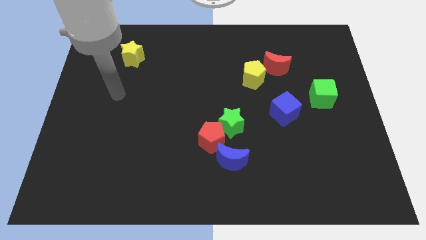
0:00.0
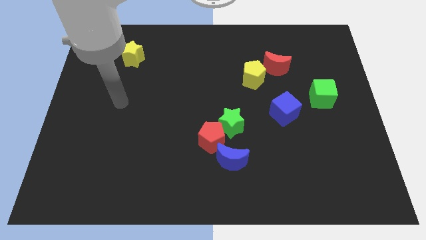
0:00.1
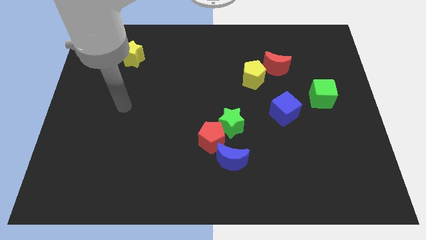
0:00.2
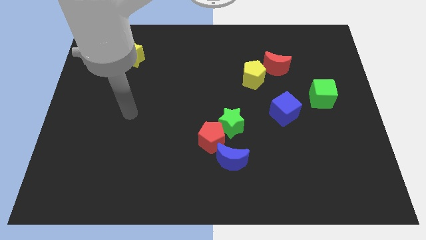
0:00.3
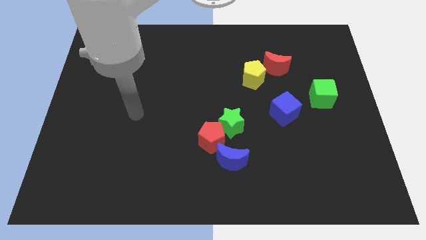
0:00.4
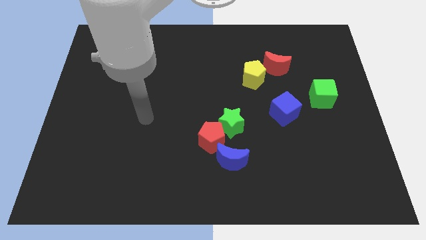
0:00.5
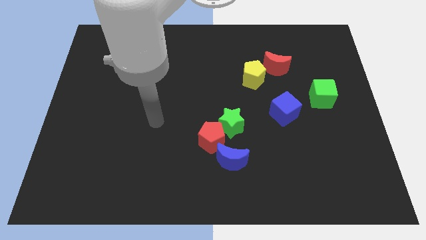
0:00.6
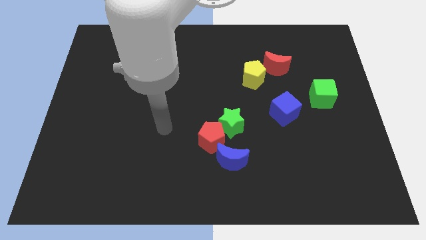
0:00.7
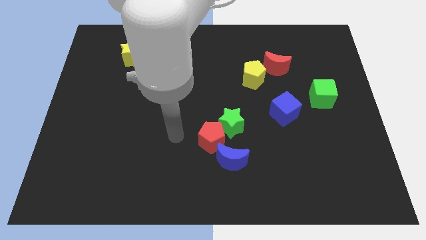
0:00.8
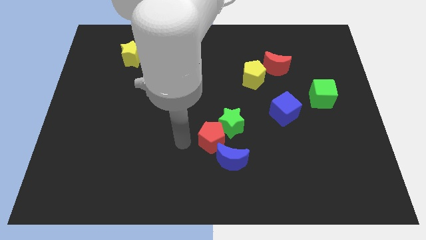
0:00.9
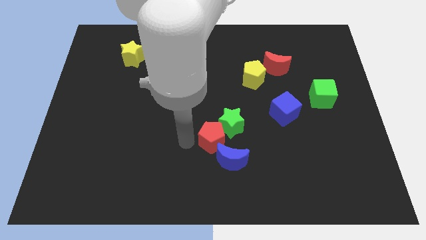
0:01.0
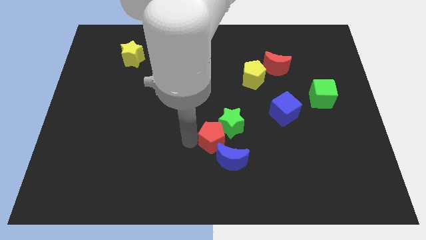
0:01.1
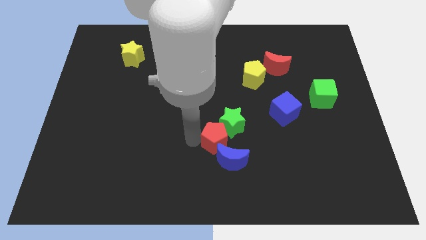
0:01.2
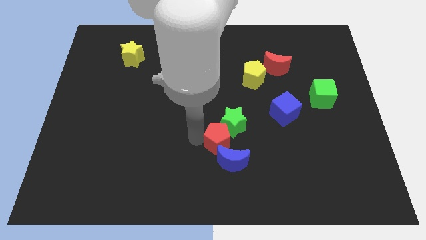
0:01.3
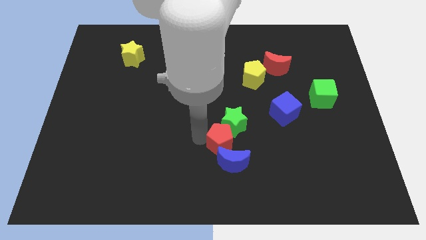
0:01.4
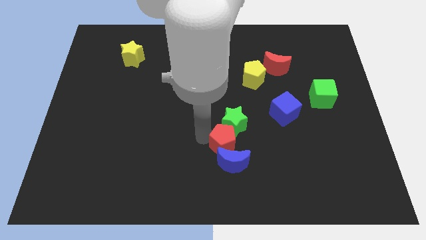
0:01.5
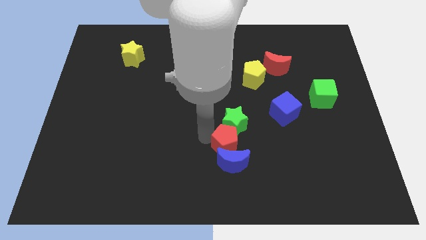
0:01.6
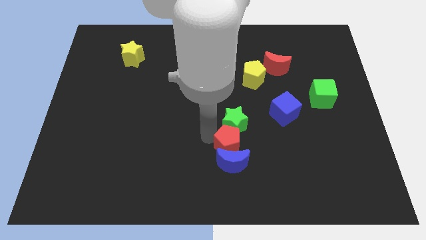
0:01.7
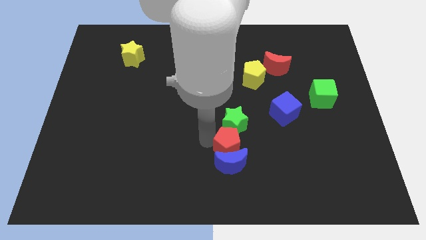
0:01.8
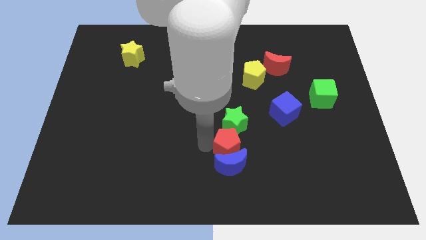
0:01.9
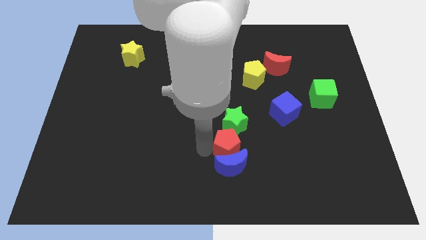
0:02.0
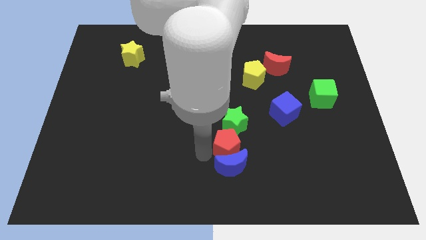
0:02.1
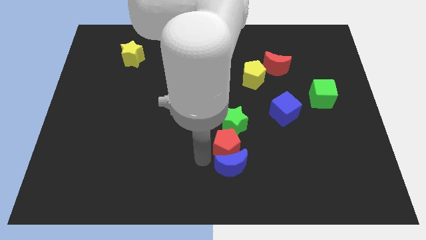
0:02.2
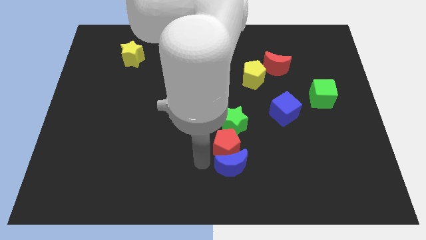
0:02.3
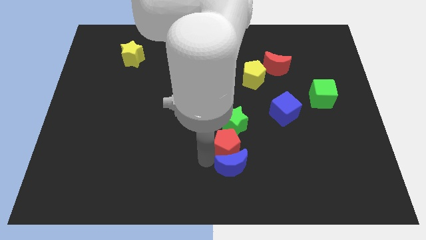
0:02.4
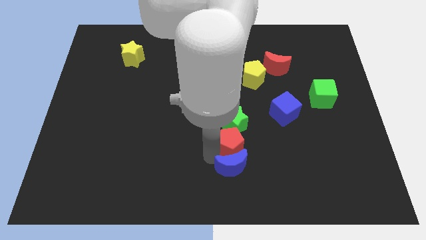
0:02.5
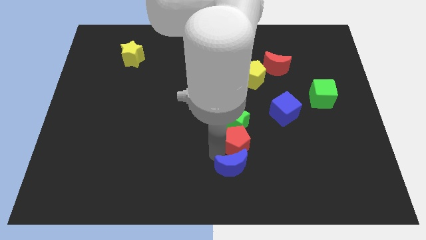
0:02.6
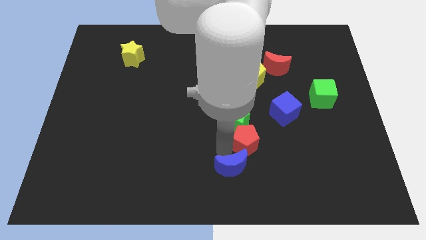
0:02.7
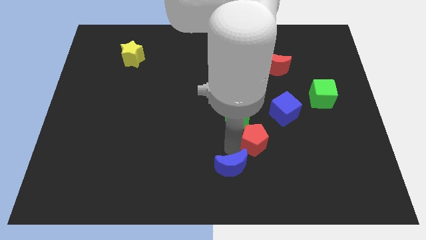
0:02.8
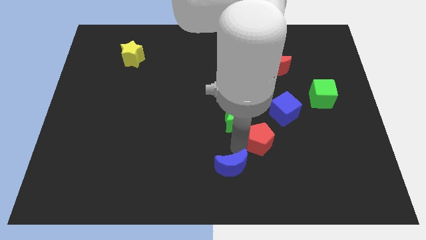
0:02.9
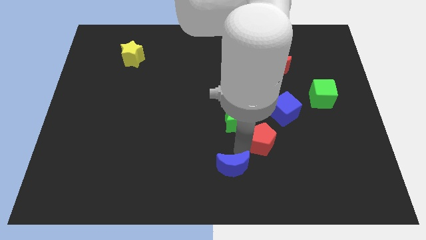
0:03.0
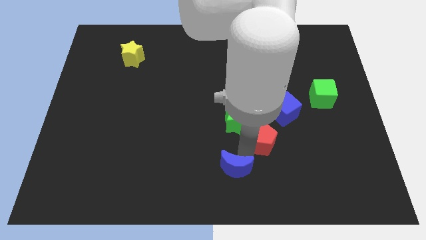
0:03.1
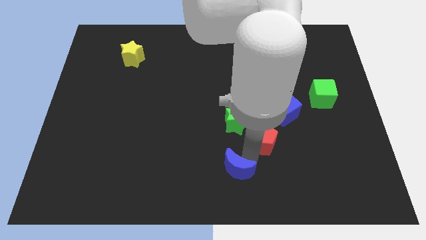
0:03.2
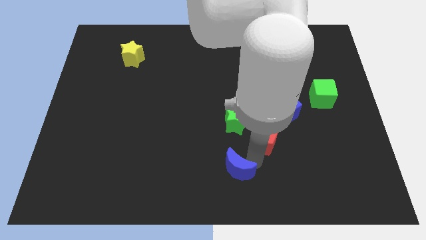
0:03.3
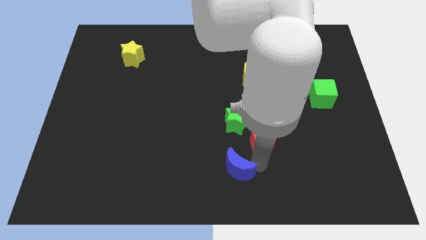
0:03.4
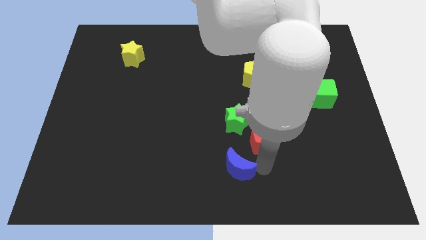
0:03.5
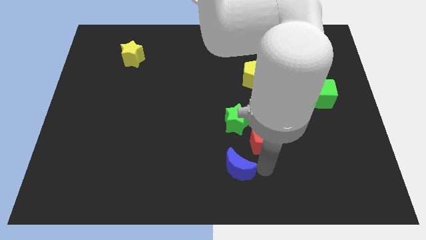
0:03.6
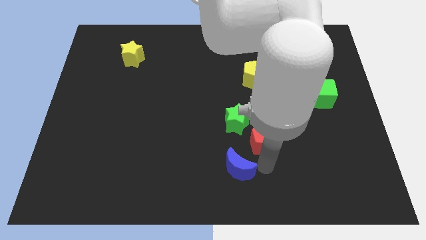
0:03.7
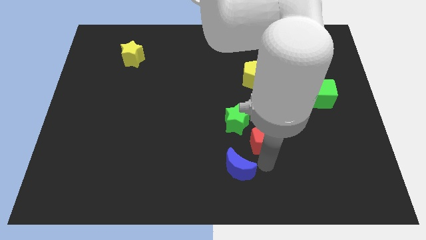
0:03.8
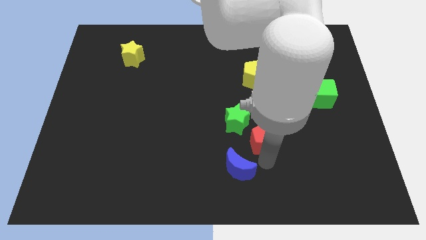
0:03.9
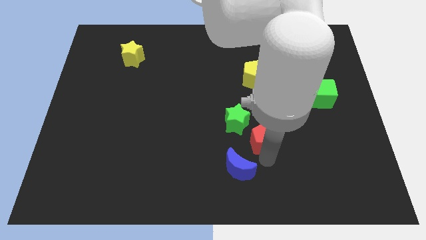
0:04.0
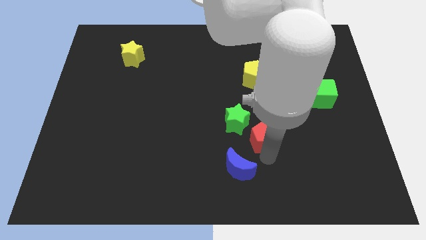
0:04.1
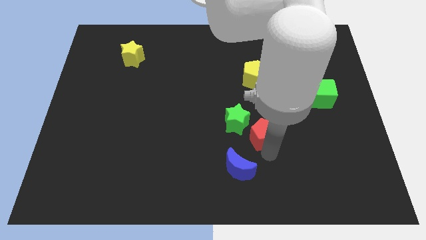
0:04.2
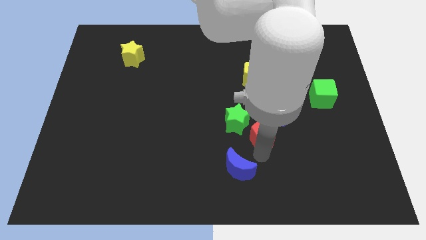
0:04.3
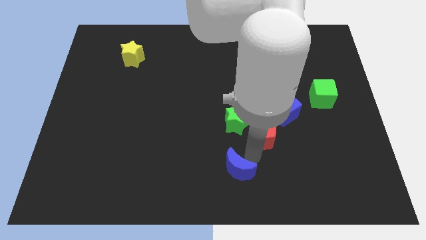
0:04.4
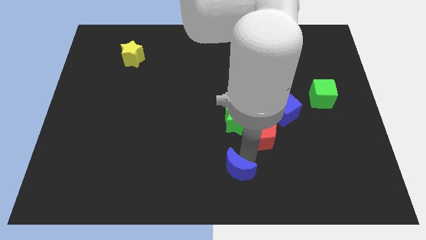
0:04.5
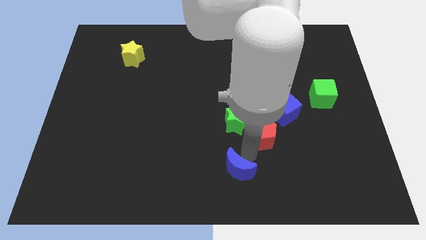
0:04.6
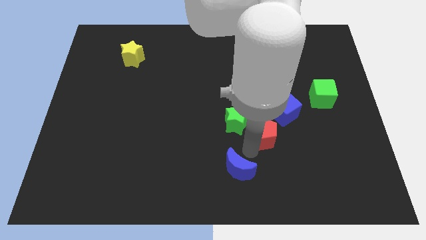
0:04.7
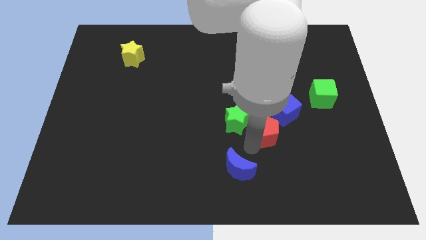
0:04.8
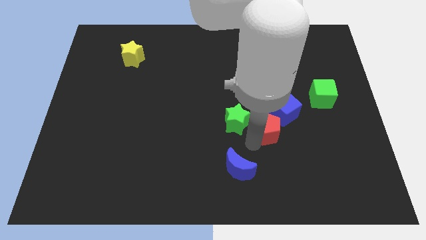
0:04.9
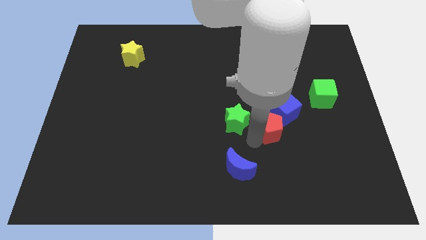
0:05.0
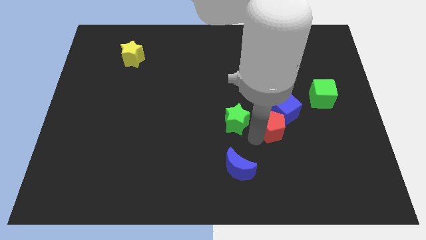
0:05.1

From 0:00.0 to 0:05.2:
put the red pentagon to the blue cube

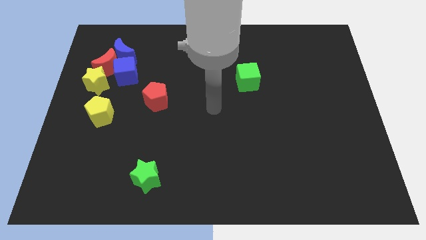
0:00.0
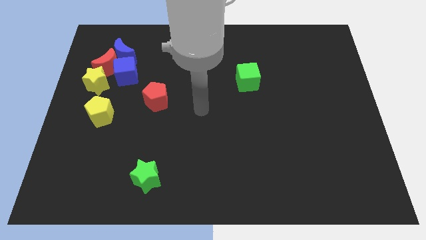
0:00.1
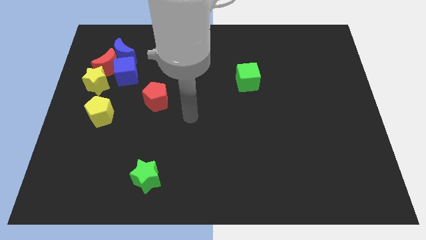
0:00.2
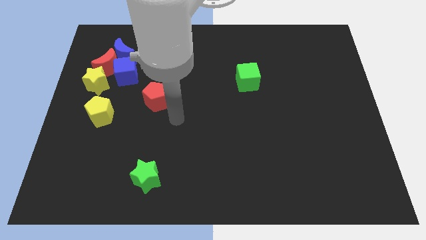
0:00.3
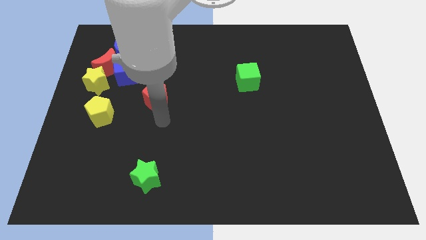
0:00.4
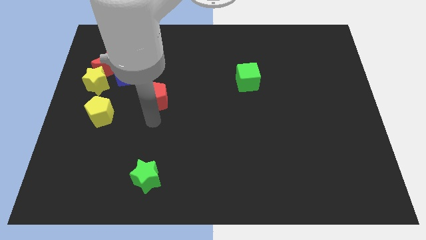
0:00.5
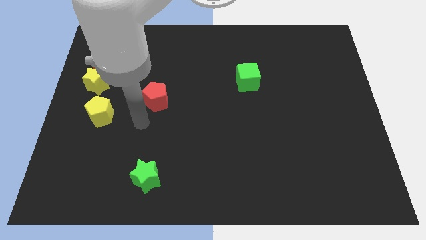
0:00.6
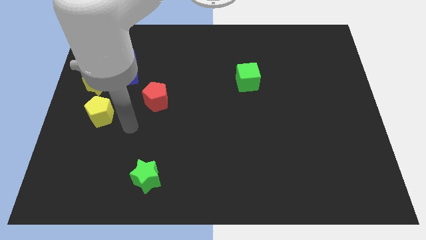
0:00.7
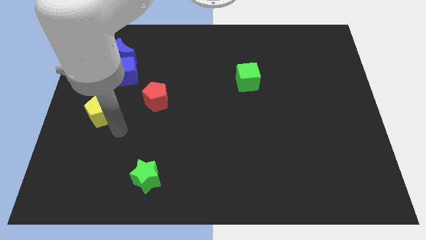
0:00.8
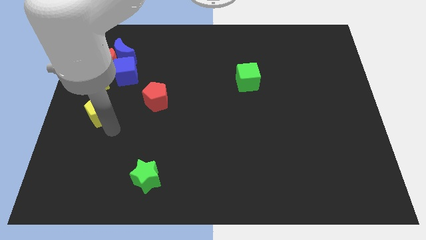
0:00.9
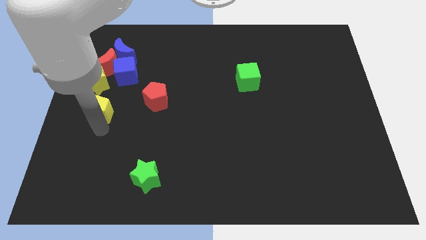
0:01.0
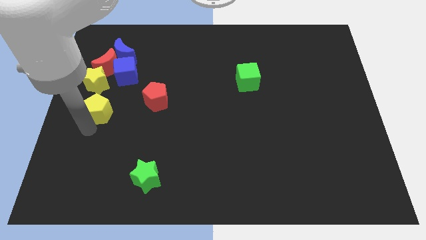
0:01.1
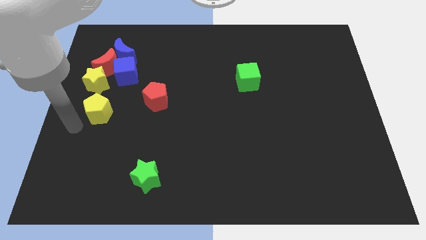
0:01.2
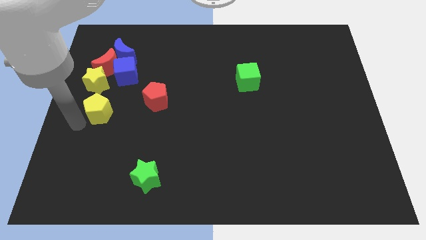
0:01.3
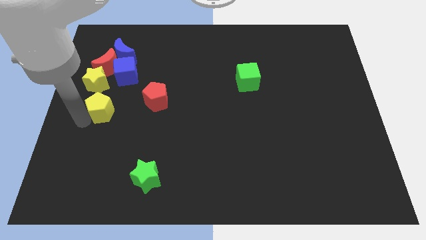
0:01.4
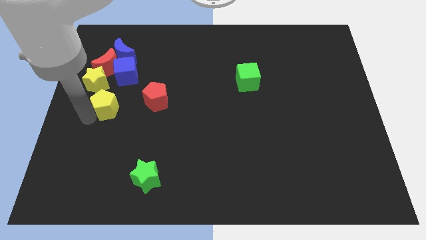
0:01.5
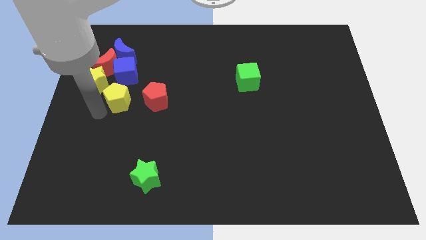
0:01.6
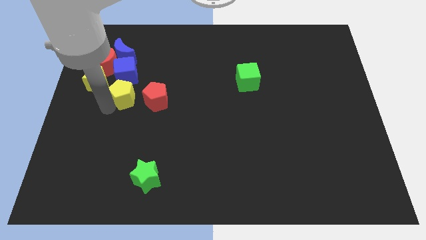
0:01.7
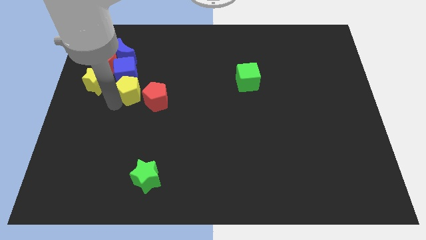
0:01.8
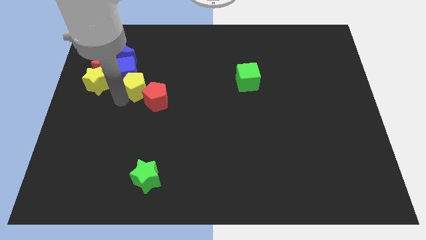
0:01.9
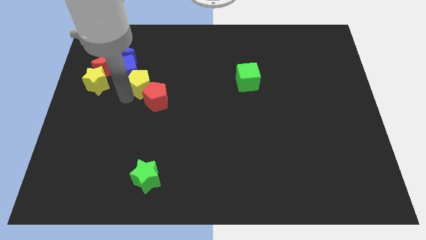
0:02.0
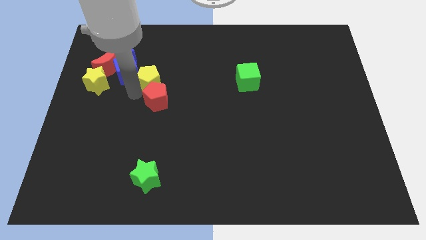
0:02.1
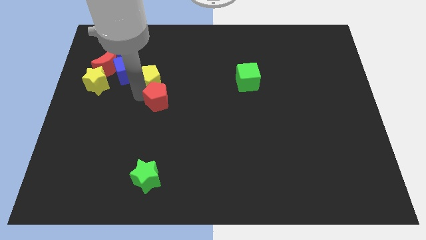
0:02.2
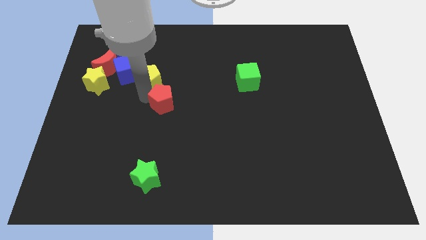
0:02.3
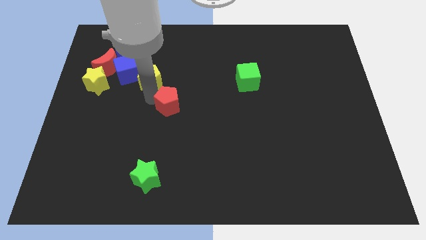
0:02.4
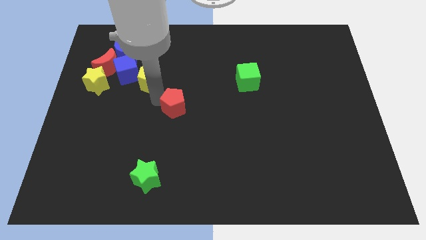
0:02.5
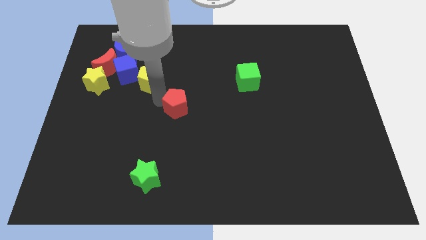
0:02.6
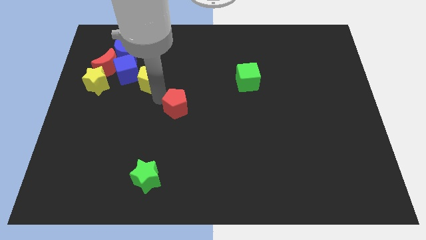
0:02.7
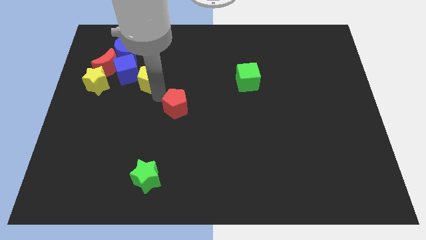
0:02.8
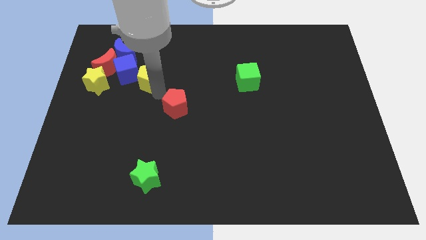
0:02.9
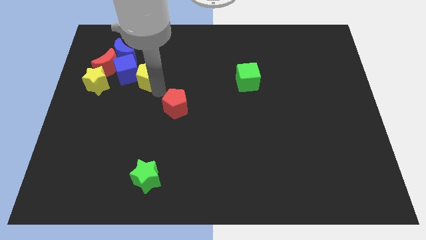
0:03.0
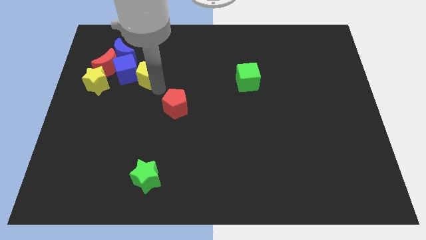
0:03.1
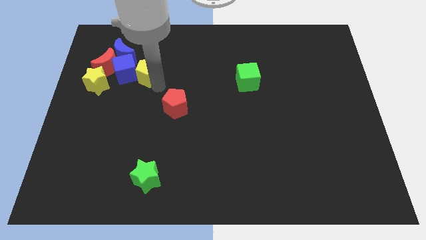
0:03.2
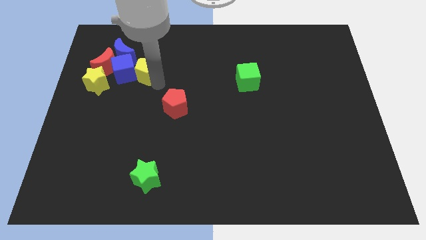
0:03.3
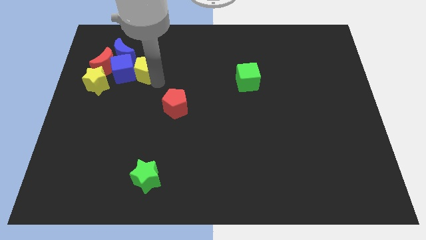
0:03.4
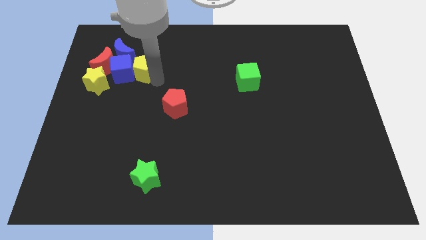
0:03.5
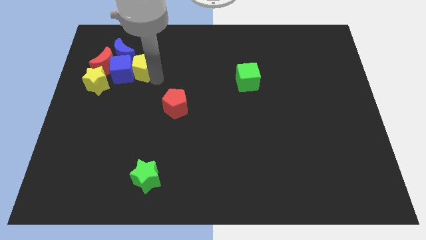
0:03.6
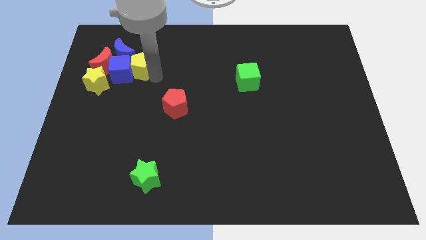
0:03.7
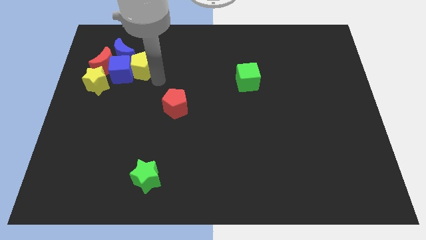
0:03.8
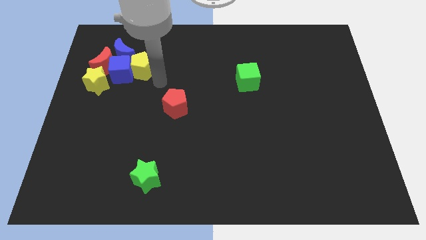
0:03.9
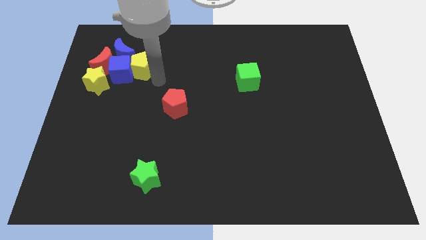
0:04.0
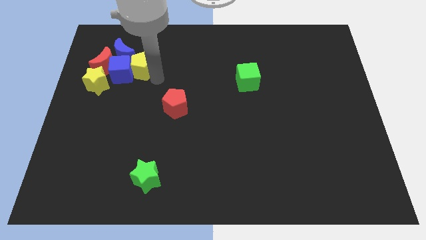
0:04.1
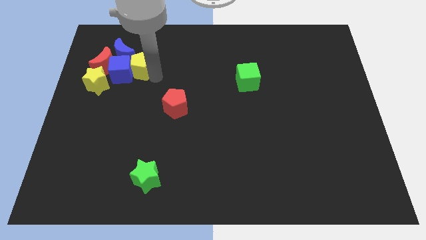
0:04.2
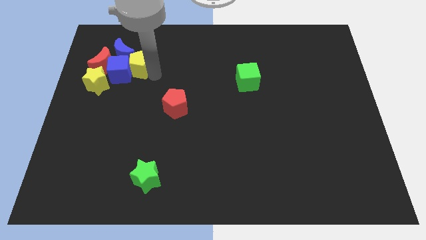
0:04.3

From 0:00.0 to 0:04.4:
slide the yellow pentagon towards the blue moon
